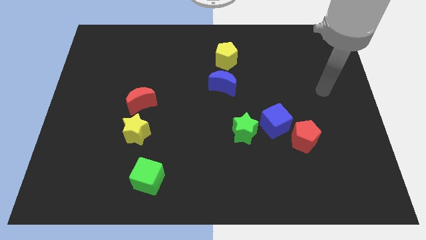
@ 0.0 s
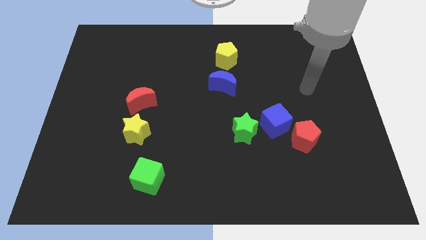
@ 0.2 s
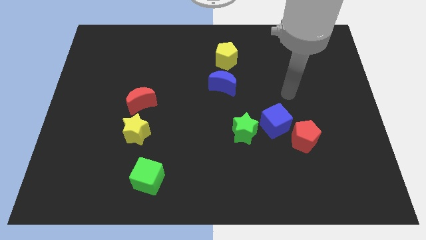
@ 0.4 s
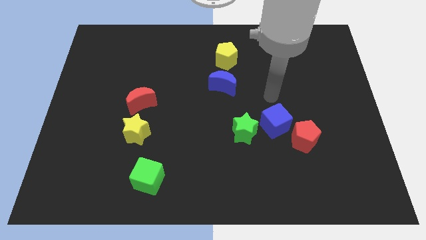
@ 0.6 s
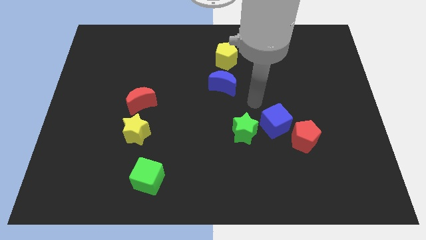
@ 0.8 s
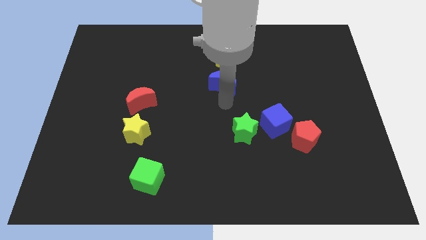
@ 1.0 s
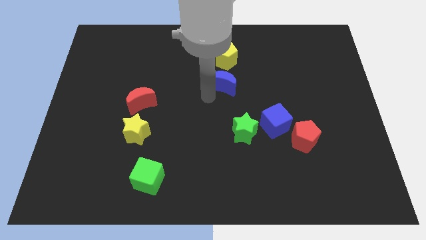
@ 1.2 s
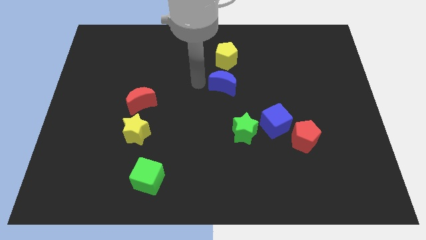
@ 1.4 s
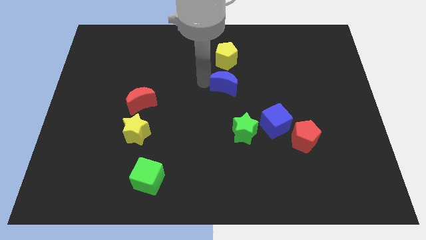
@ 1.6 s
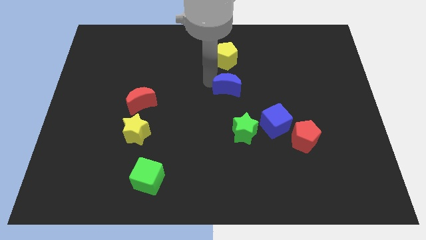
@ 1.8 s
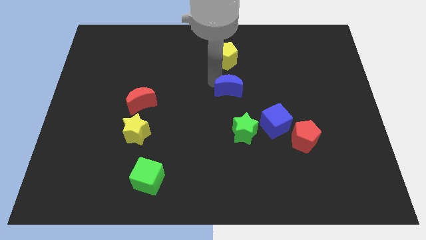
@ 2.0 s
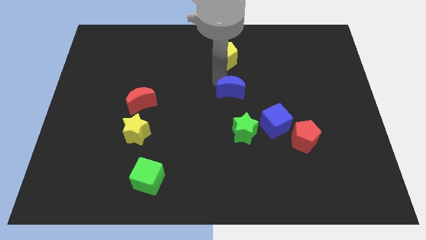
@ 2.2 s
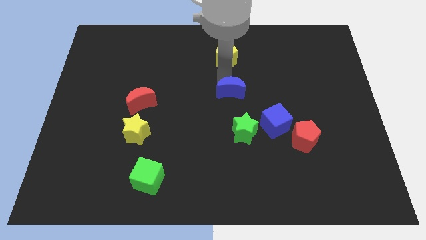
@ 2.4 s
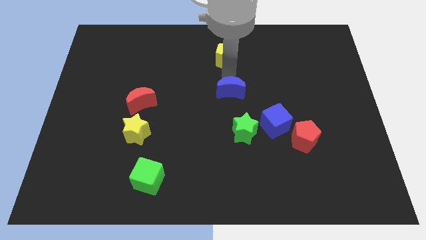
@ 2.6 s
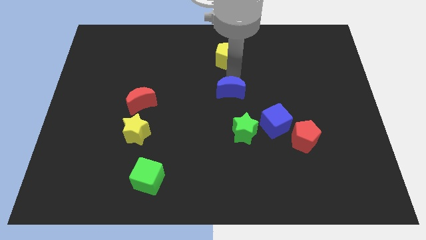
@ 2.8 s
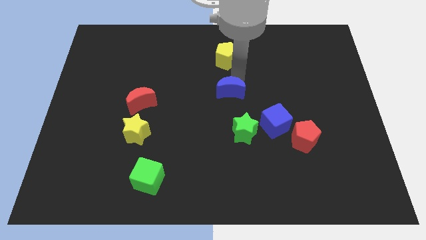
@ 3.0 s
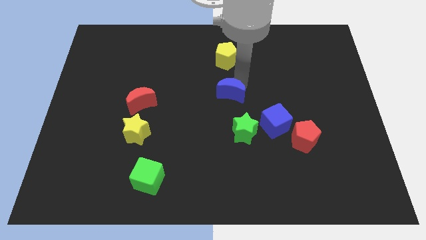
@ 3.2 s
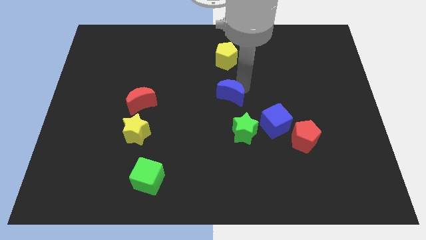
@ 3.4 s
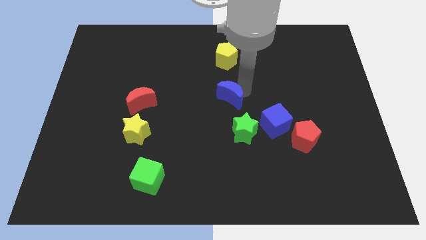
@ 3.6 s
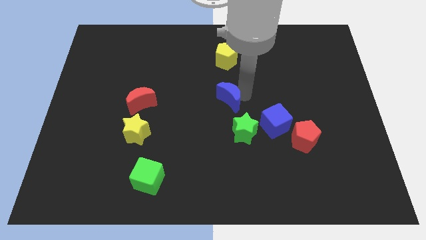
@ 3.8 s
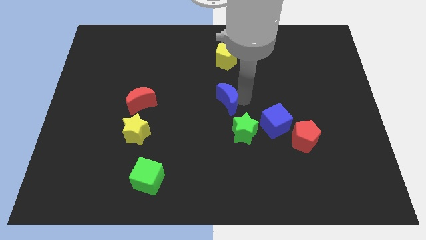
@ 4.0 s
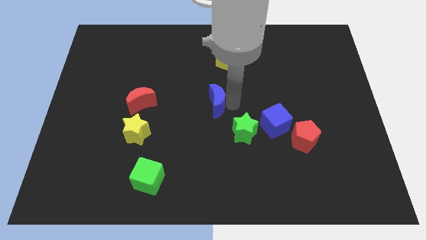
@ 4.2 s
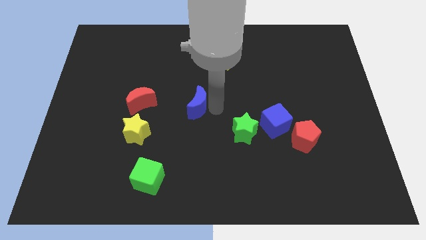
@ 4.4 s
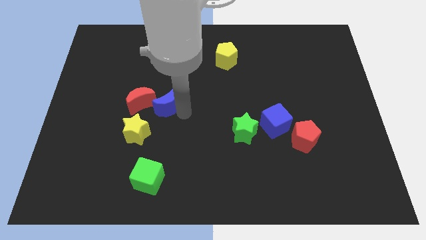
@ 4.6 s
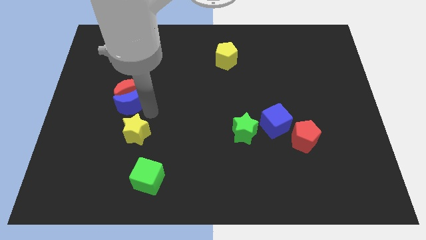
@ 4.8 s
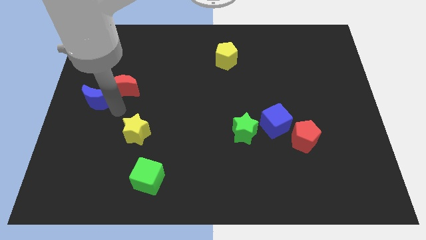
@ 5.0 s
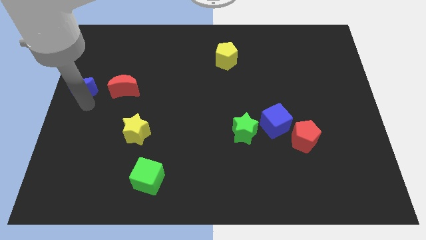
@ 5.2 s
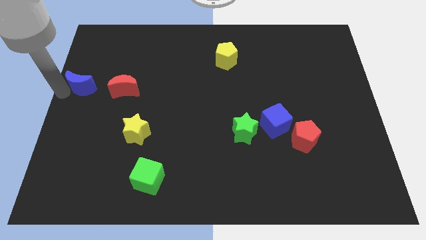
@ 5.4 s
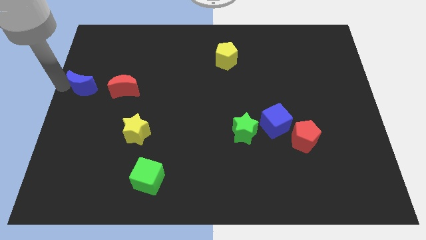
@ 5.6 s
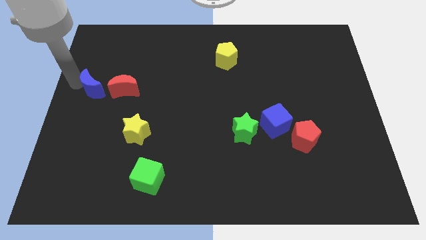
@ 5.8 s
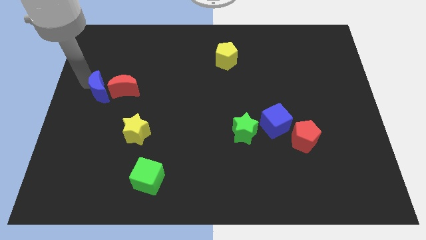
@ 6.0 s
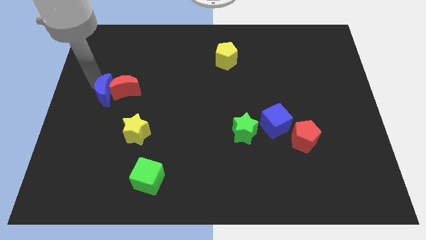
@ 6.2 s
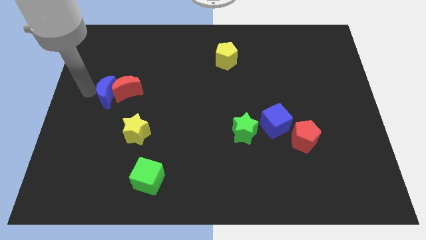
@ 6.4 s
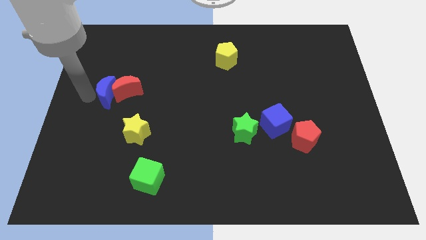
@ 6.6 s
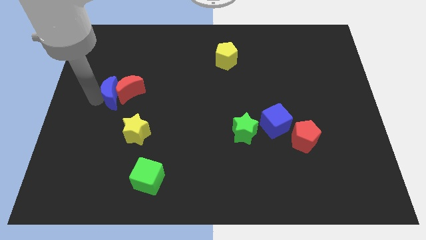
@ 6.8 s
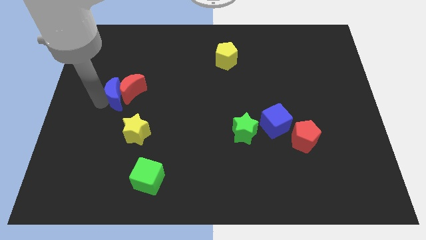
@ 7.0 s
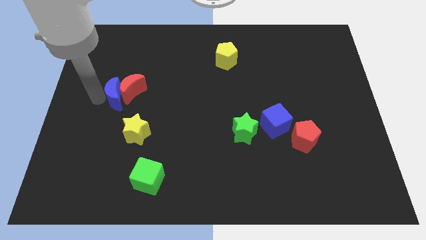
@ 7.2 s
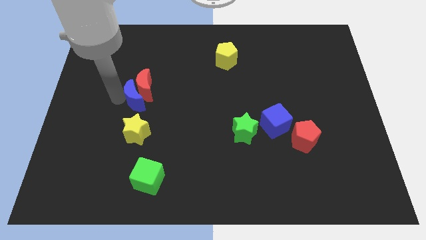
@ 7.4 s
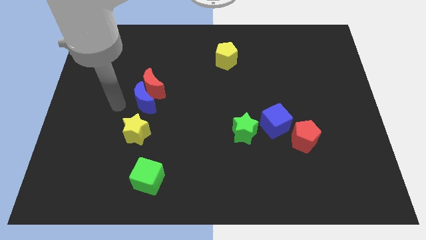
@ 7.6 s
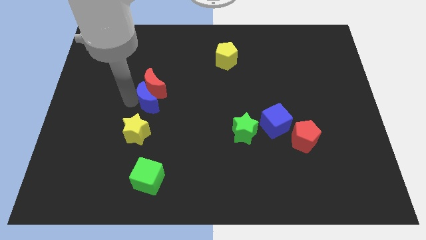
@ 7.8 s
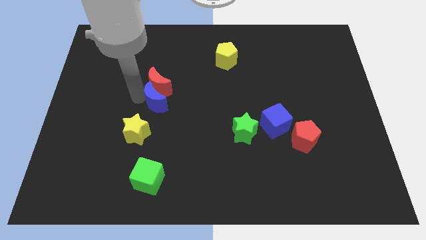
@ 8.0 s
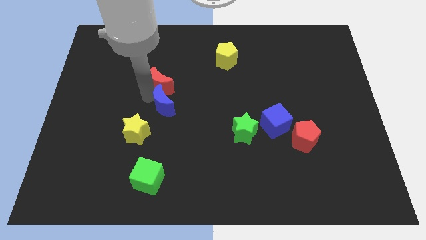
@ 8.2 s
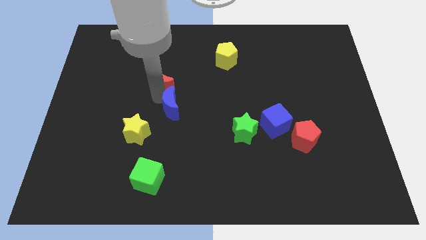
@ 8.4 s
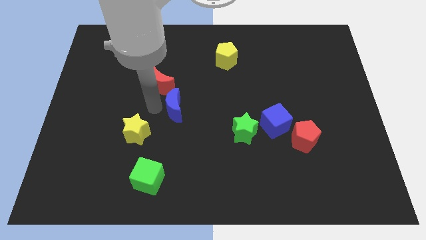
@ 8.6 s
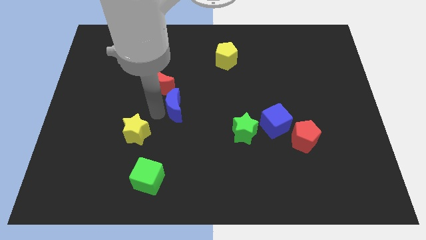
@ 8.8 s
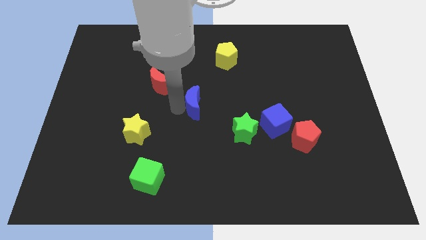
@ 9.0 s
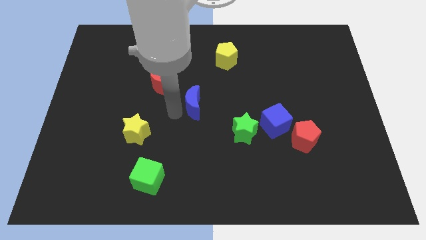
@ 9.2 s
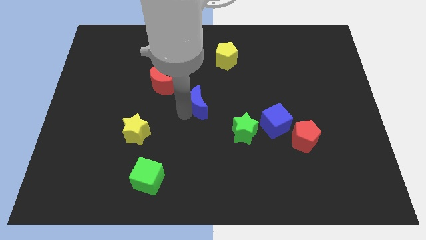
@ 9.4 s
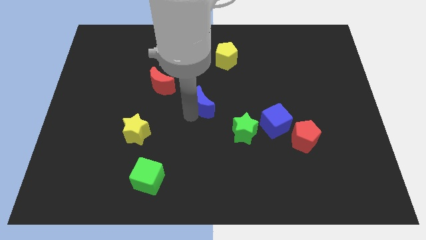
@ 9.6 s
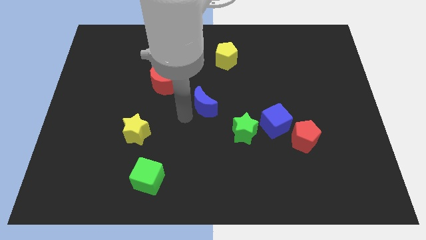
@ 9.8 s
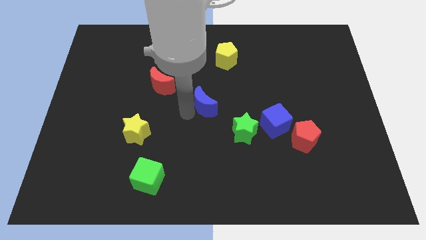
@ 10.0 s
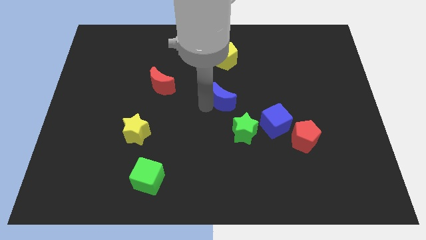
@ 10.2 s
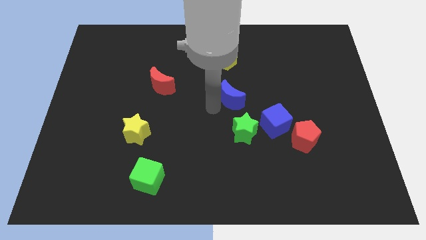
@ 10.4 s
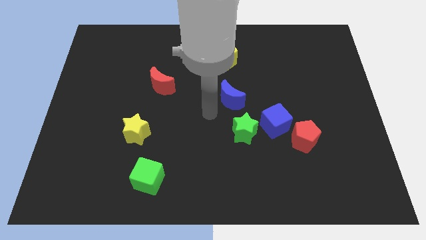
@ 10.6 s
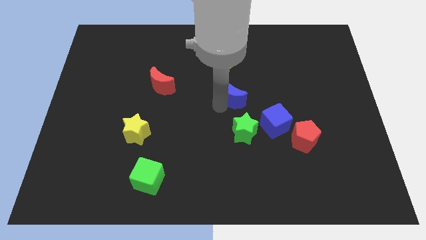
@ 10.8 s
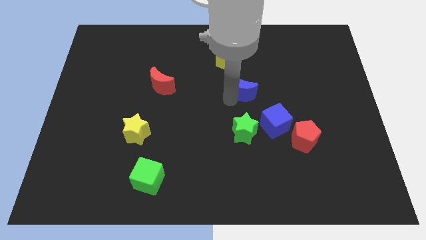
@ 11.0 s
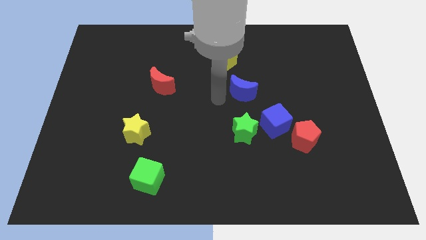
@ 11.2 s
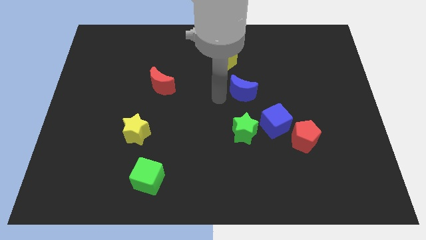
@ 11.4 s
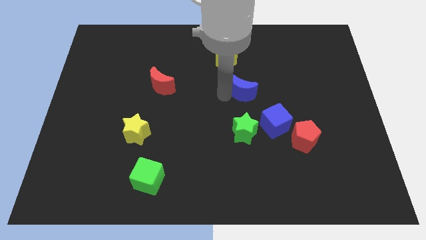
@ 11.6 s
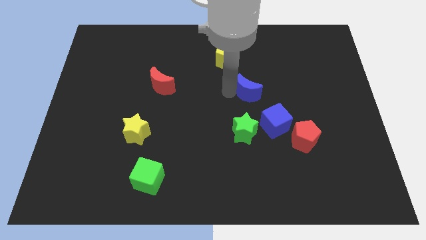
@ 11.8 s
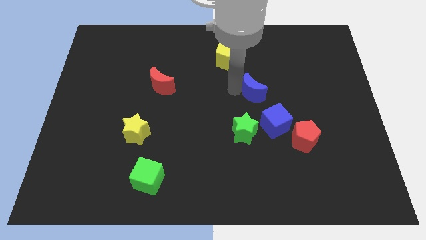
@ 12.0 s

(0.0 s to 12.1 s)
push the blue moon right a bit

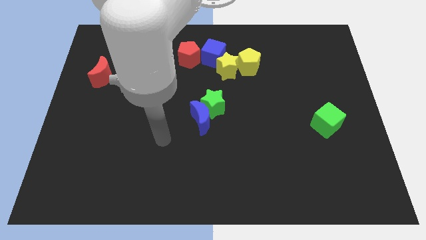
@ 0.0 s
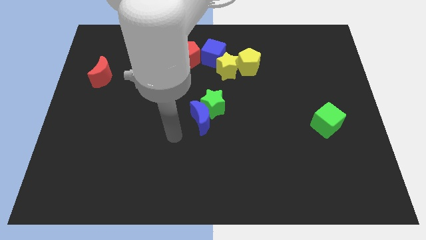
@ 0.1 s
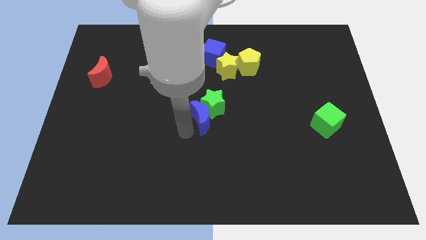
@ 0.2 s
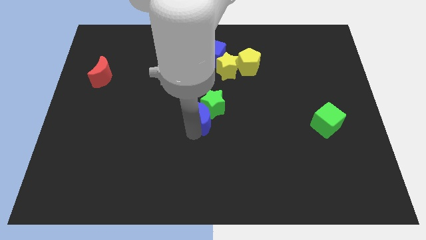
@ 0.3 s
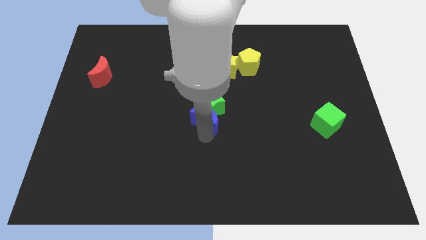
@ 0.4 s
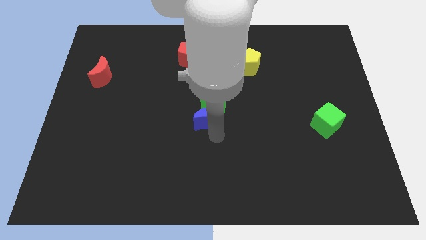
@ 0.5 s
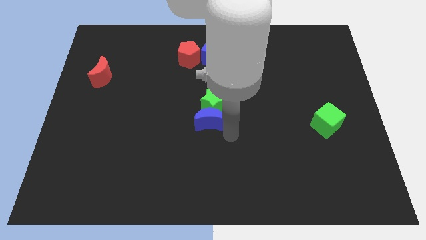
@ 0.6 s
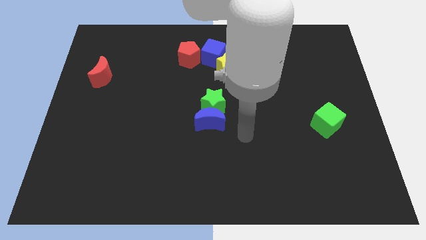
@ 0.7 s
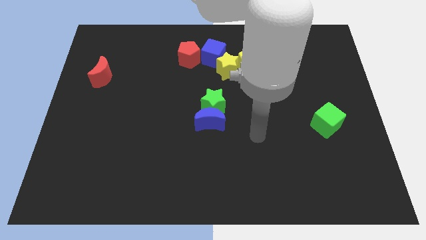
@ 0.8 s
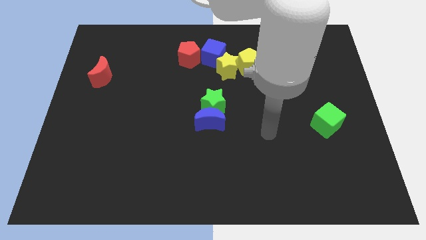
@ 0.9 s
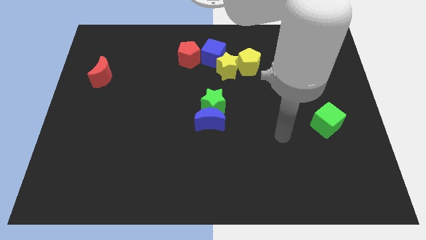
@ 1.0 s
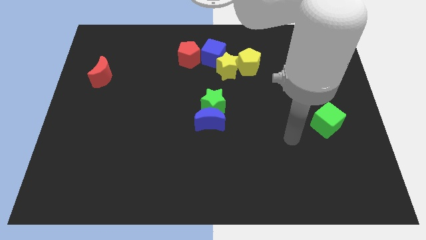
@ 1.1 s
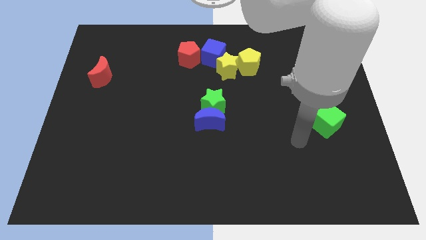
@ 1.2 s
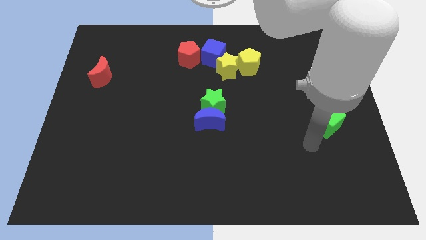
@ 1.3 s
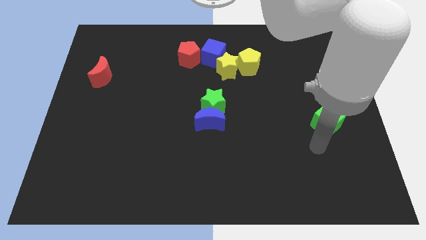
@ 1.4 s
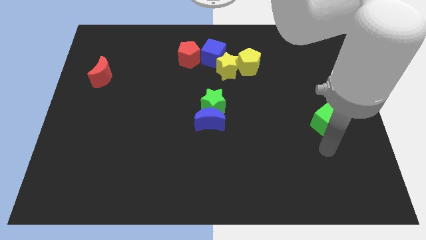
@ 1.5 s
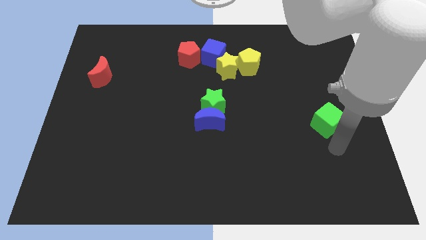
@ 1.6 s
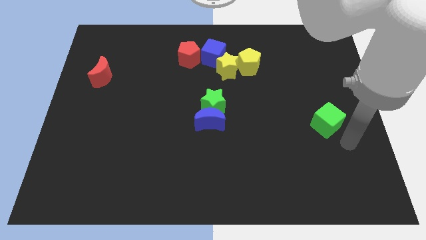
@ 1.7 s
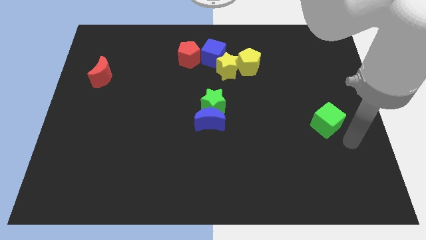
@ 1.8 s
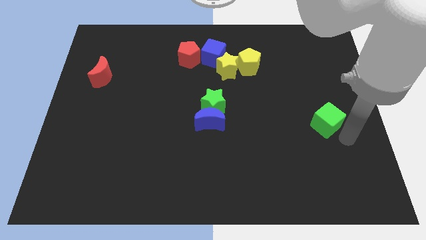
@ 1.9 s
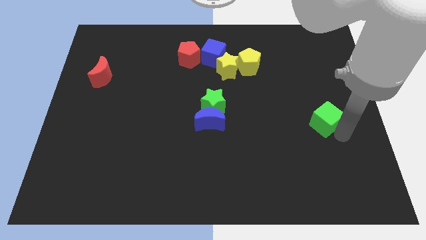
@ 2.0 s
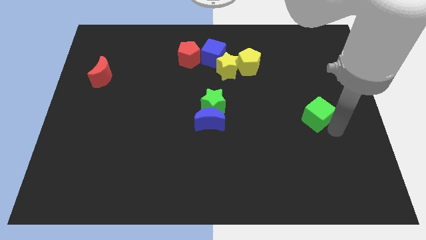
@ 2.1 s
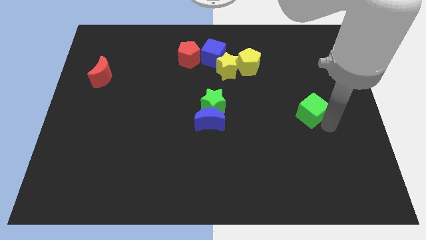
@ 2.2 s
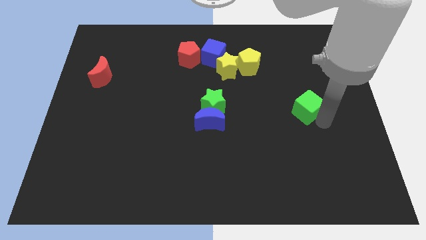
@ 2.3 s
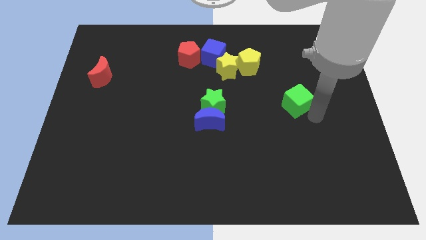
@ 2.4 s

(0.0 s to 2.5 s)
slightly push the green cube diagonally upwards and to the left
